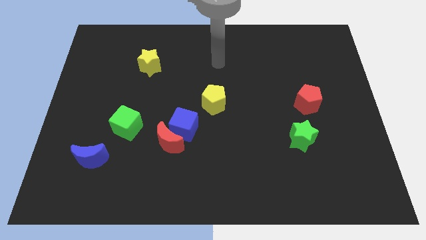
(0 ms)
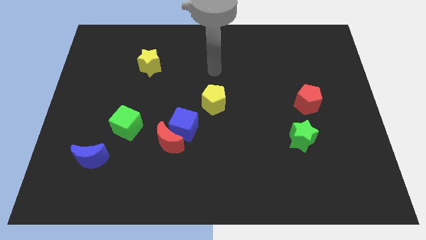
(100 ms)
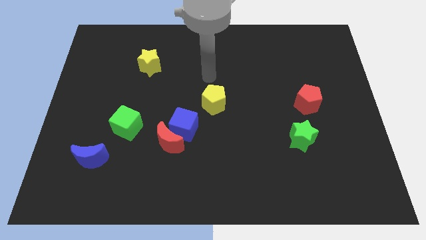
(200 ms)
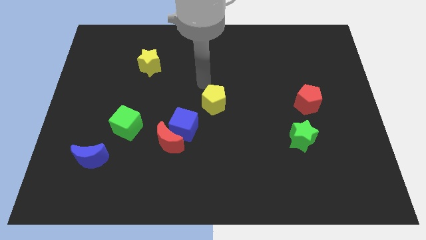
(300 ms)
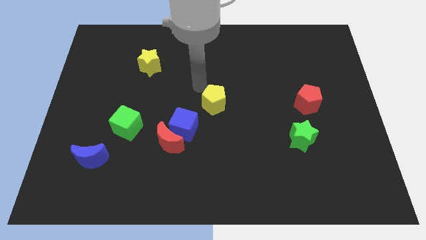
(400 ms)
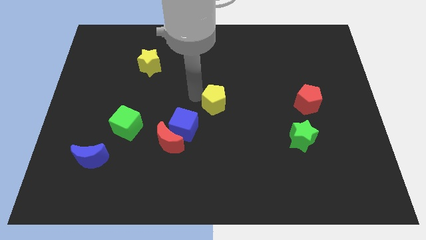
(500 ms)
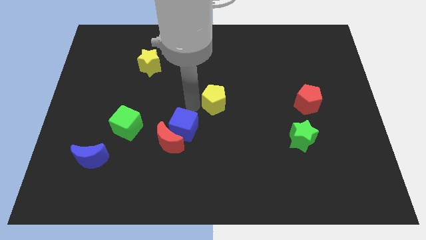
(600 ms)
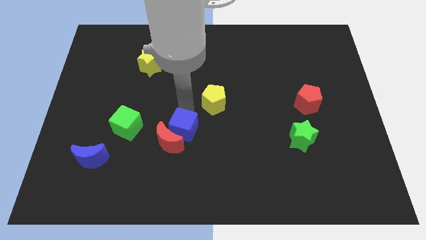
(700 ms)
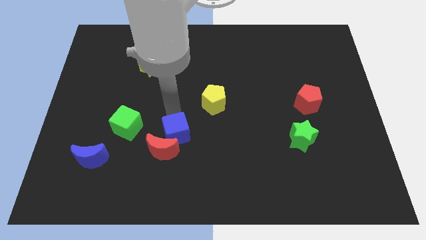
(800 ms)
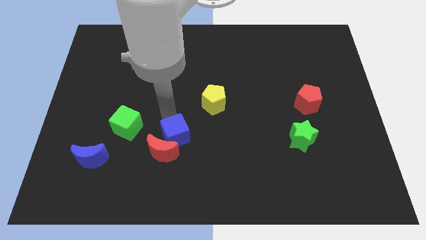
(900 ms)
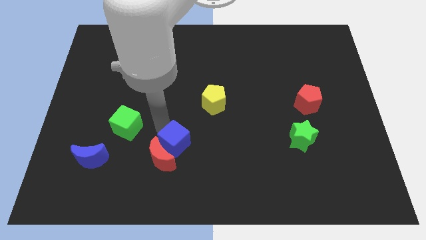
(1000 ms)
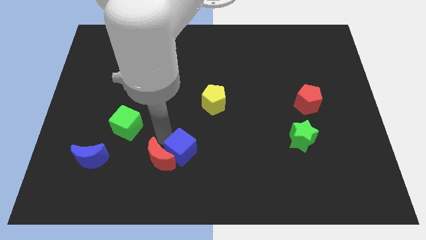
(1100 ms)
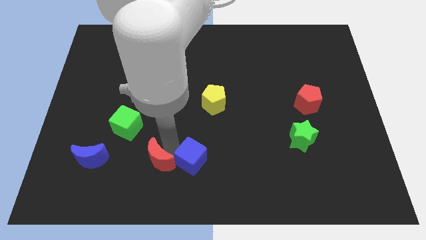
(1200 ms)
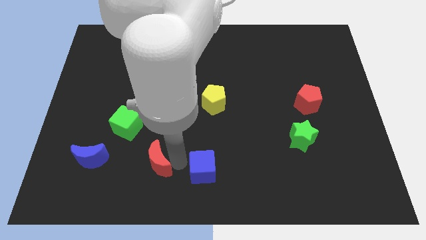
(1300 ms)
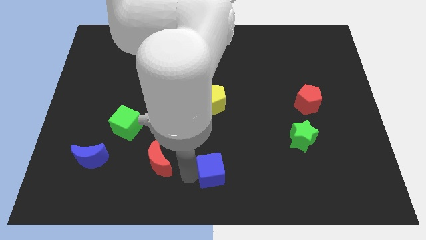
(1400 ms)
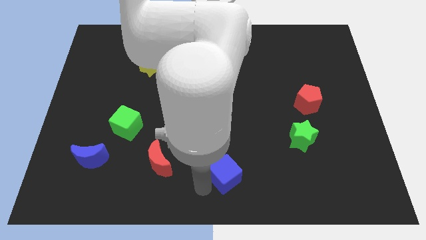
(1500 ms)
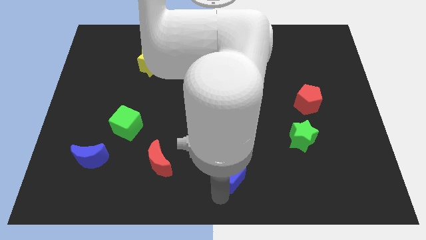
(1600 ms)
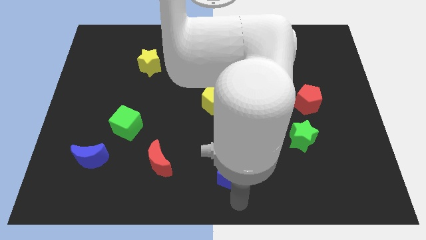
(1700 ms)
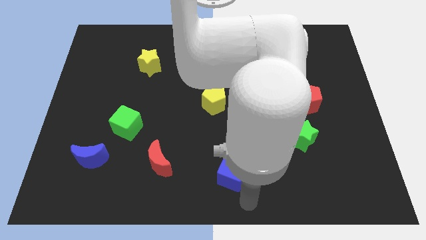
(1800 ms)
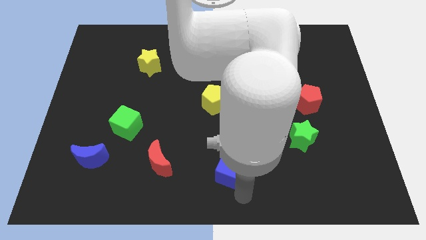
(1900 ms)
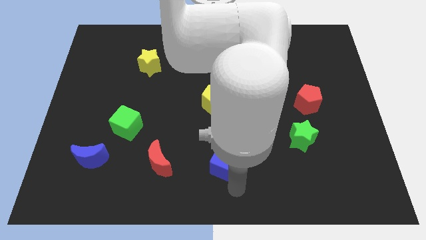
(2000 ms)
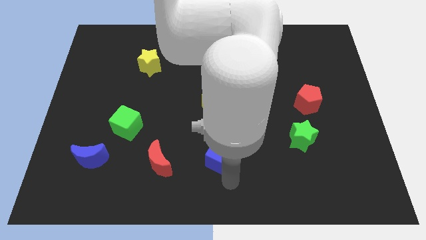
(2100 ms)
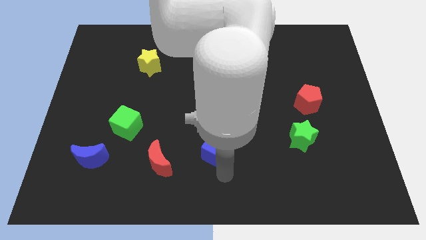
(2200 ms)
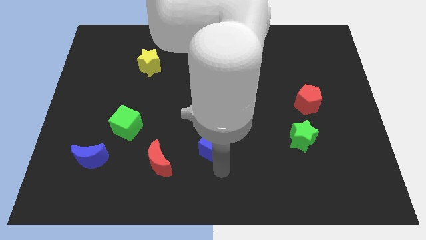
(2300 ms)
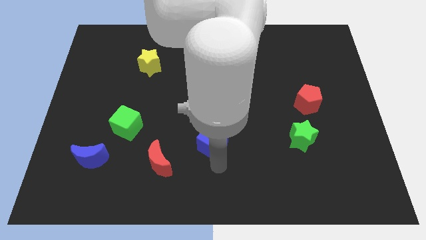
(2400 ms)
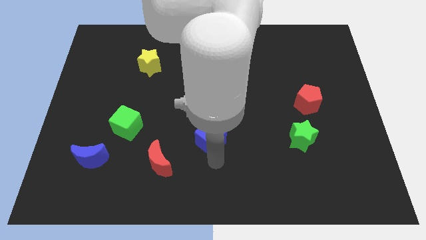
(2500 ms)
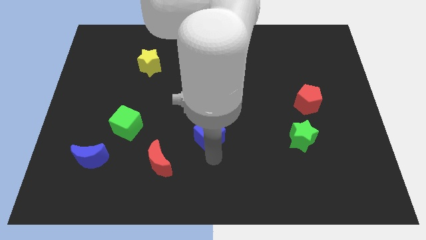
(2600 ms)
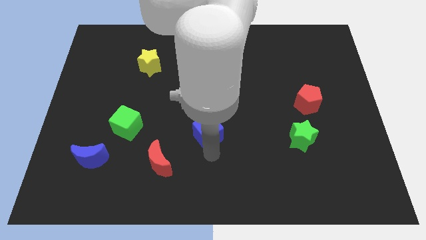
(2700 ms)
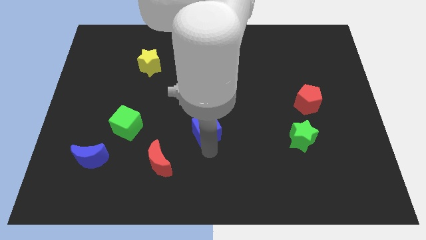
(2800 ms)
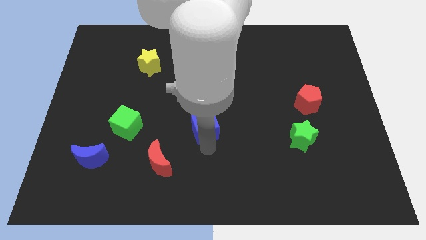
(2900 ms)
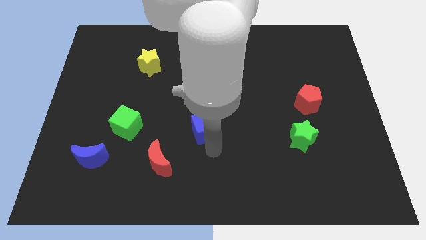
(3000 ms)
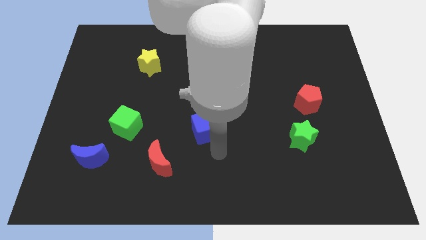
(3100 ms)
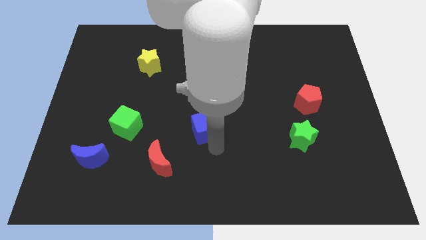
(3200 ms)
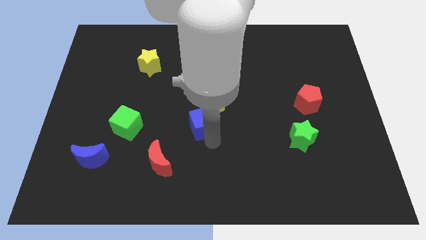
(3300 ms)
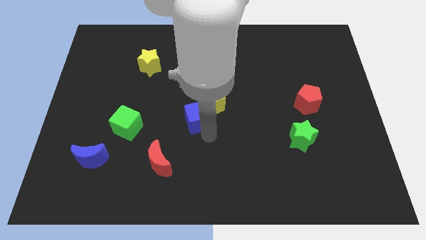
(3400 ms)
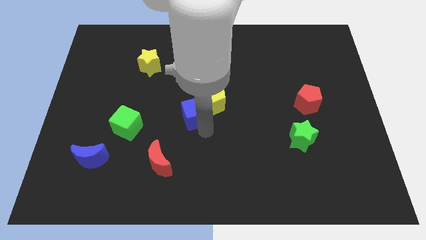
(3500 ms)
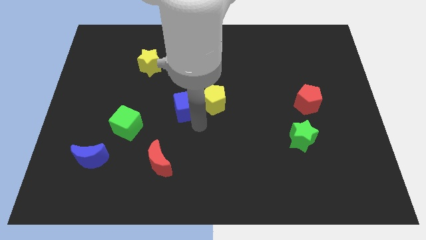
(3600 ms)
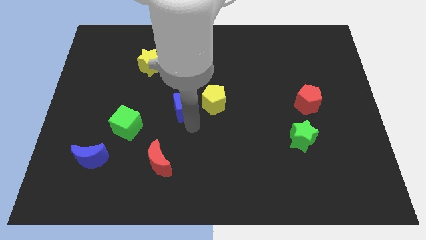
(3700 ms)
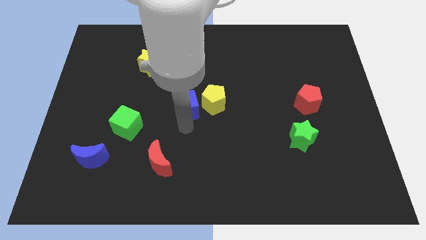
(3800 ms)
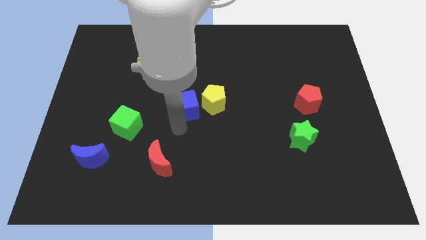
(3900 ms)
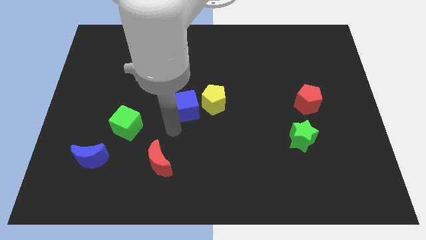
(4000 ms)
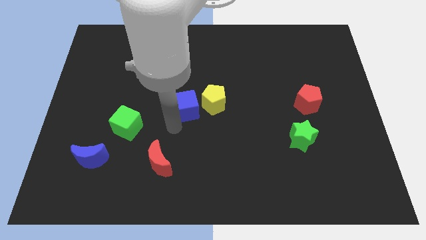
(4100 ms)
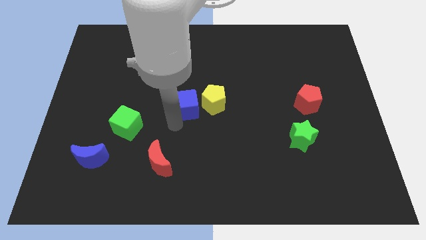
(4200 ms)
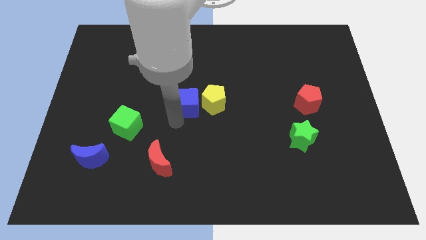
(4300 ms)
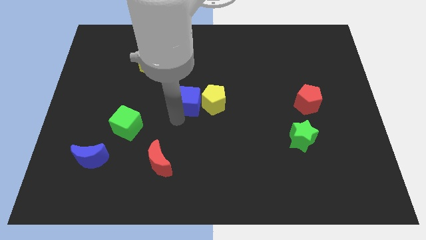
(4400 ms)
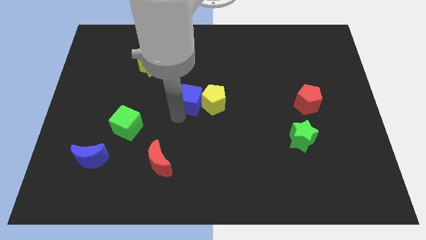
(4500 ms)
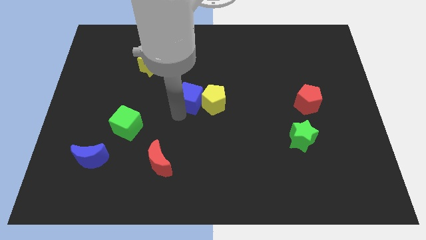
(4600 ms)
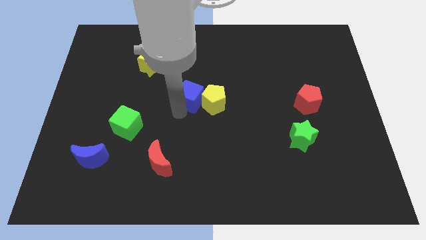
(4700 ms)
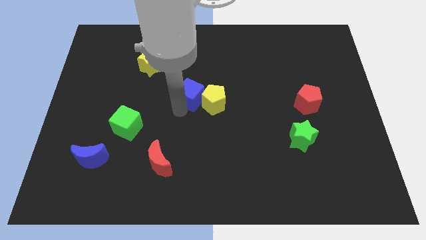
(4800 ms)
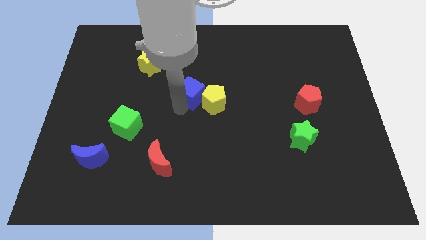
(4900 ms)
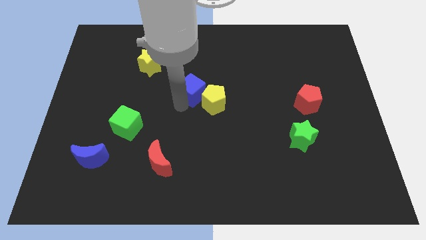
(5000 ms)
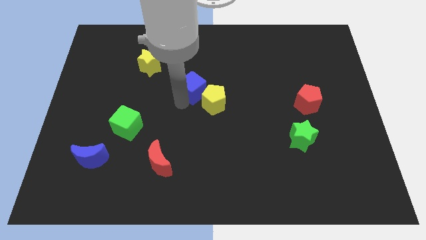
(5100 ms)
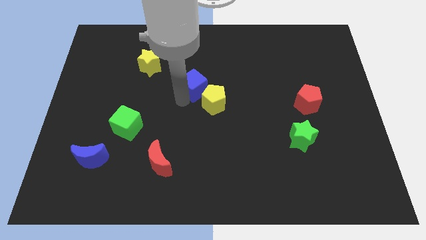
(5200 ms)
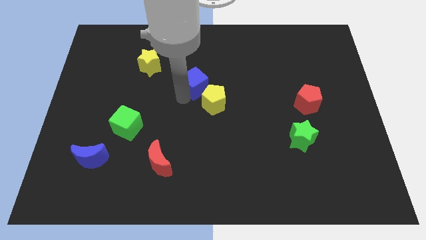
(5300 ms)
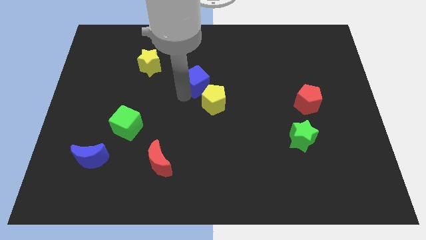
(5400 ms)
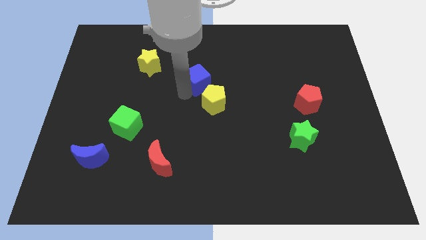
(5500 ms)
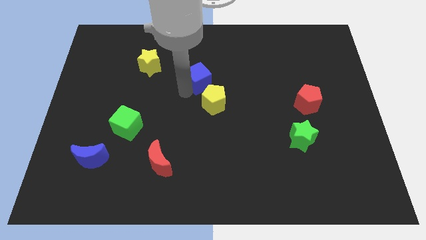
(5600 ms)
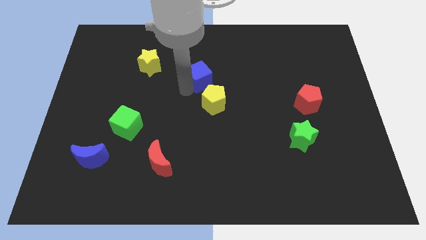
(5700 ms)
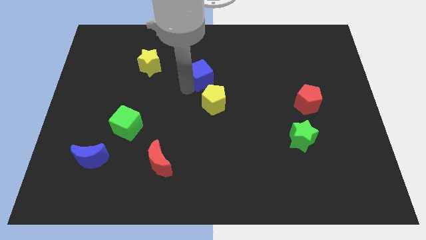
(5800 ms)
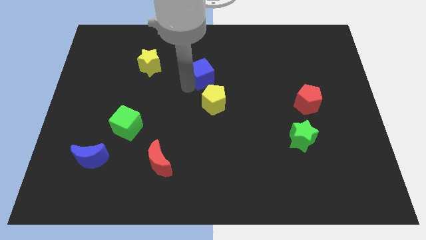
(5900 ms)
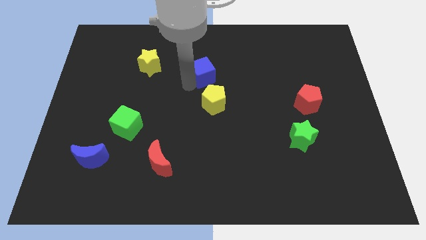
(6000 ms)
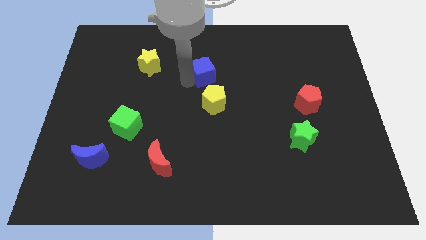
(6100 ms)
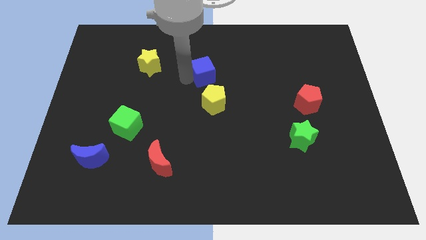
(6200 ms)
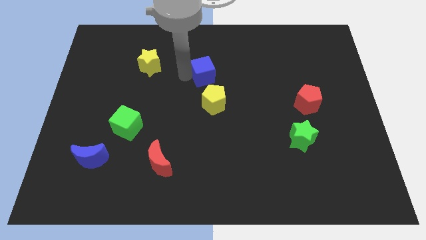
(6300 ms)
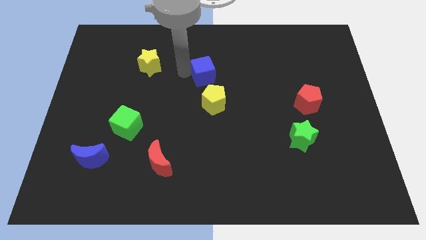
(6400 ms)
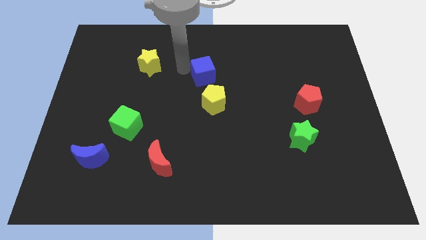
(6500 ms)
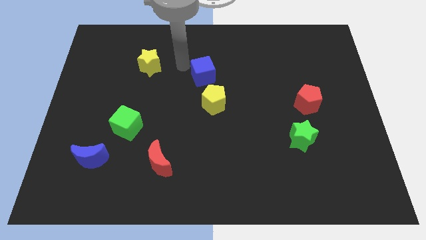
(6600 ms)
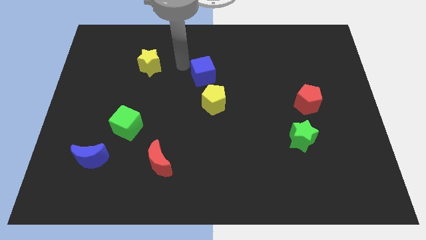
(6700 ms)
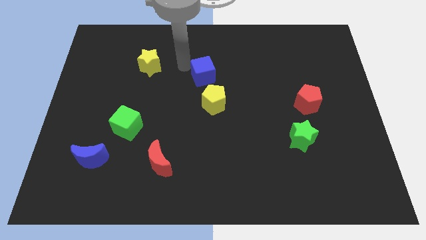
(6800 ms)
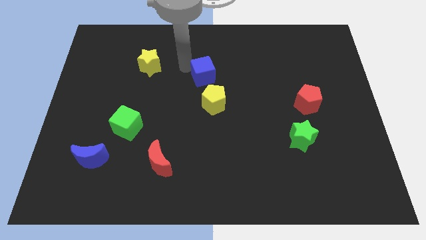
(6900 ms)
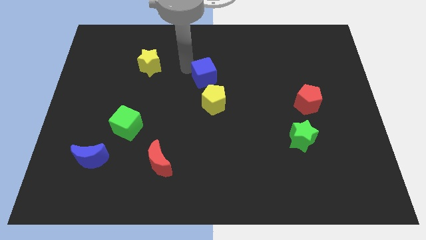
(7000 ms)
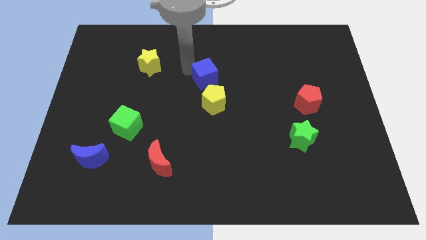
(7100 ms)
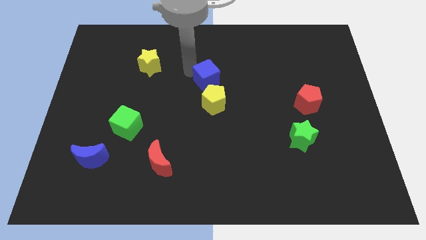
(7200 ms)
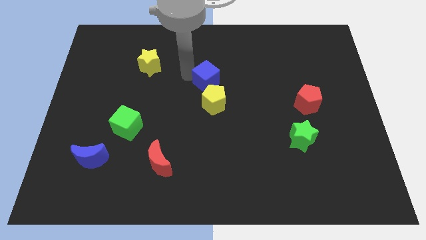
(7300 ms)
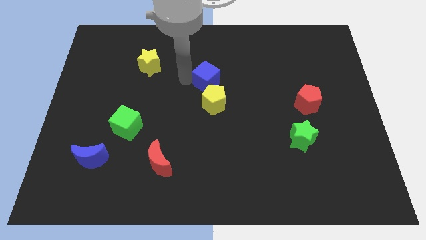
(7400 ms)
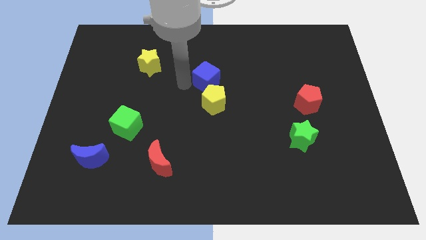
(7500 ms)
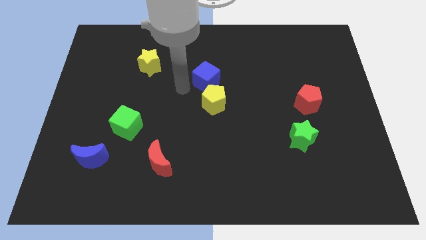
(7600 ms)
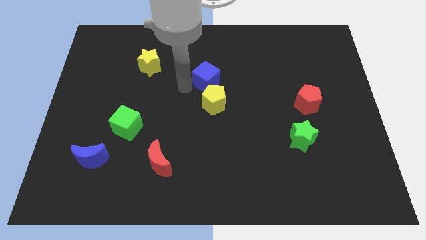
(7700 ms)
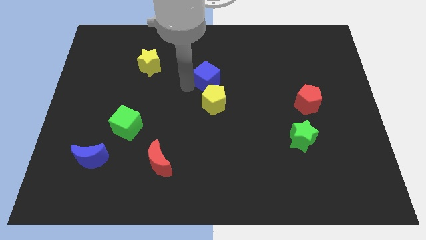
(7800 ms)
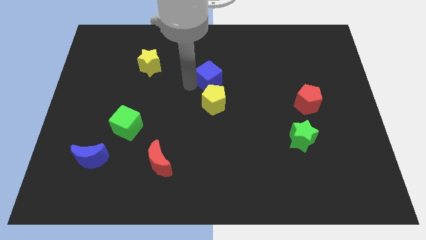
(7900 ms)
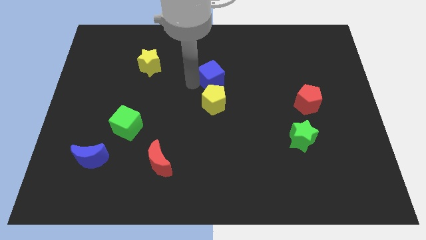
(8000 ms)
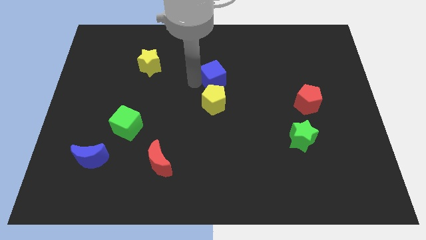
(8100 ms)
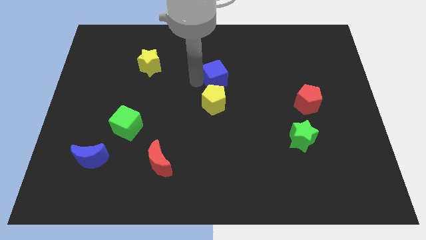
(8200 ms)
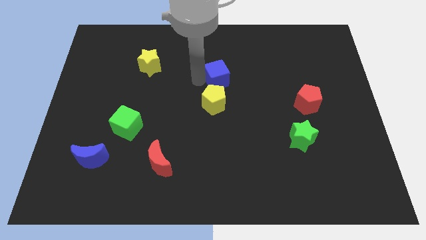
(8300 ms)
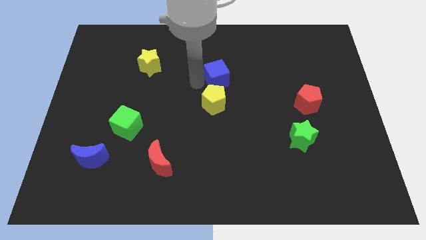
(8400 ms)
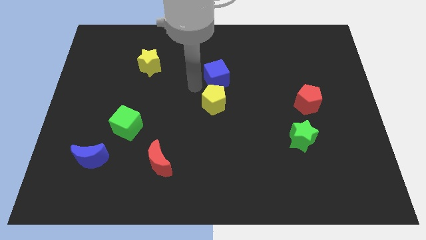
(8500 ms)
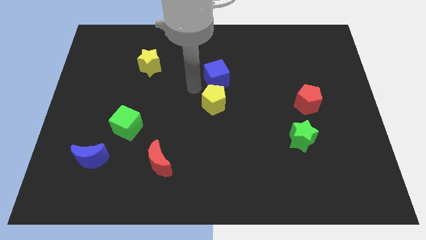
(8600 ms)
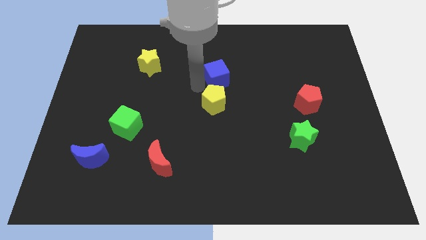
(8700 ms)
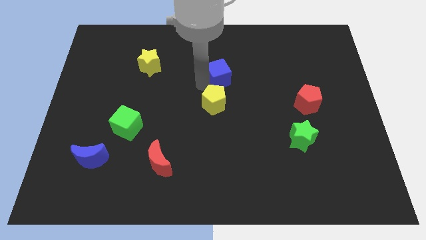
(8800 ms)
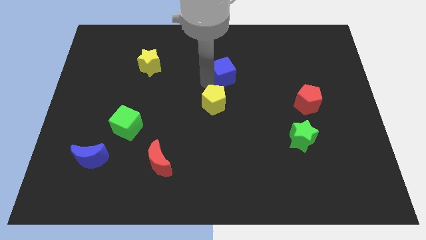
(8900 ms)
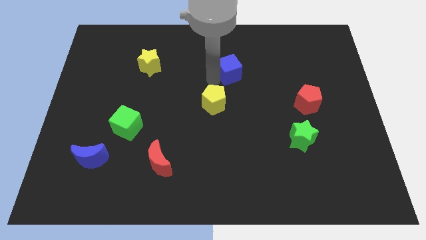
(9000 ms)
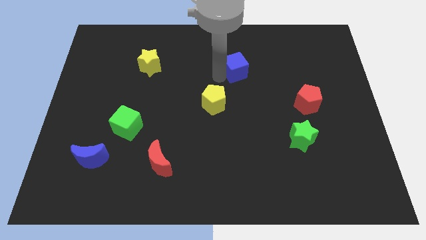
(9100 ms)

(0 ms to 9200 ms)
slide the blue cube diagonally up and to the right
